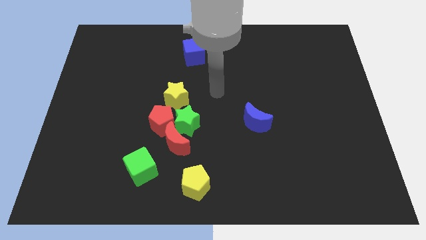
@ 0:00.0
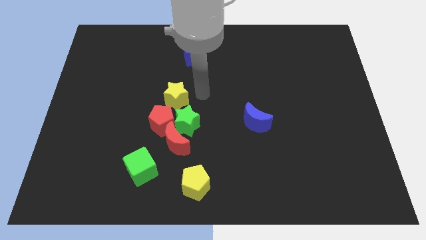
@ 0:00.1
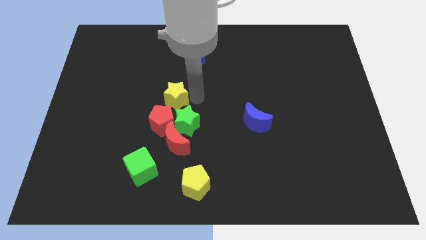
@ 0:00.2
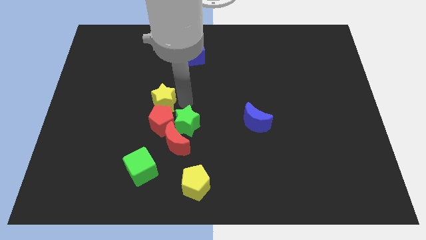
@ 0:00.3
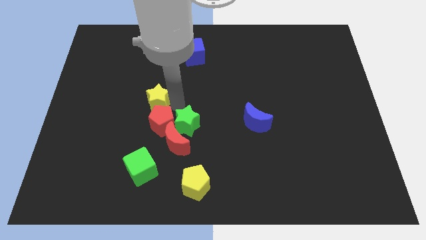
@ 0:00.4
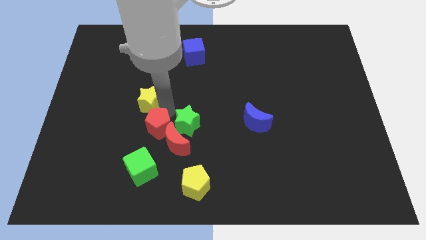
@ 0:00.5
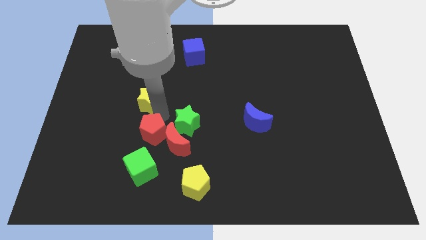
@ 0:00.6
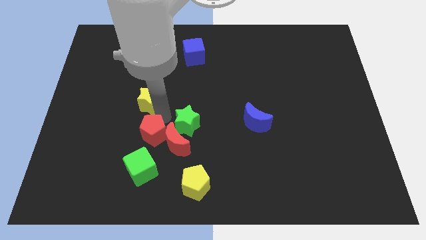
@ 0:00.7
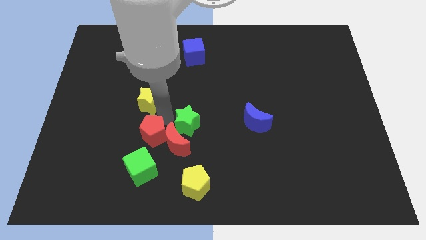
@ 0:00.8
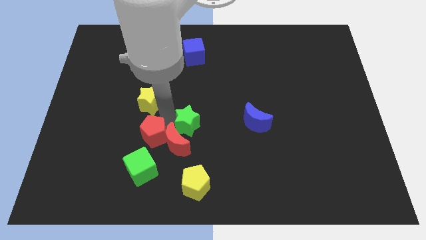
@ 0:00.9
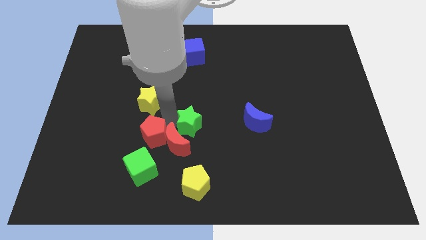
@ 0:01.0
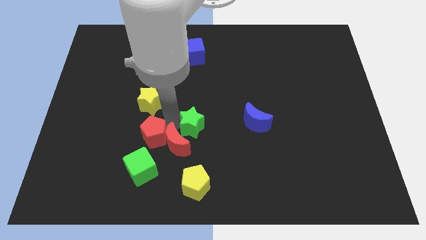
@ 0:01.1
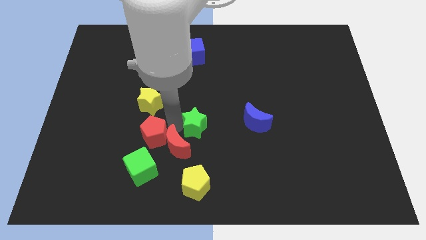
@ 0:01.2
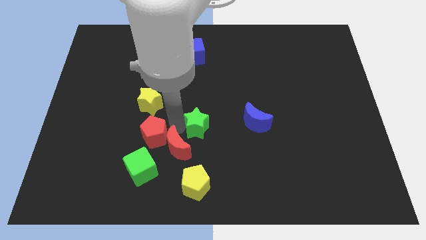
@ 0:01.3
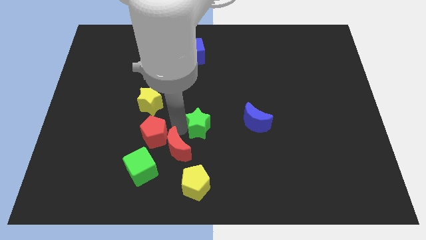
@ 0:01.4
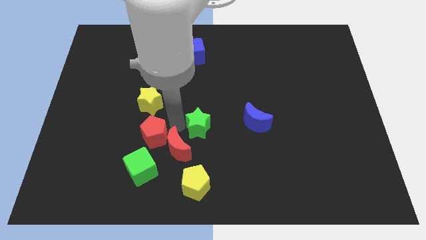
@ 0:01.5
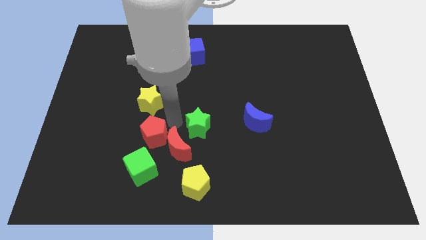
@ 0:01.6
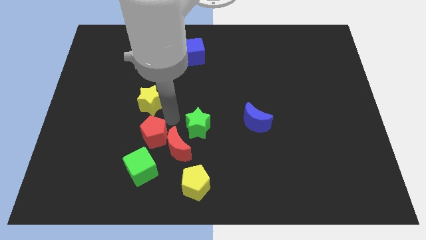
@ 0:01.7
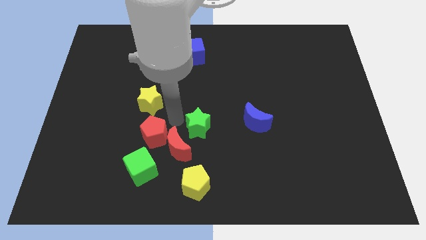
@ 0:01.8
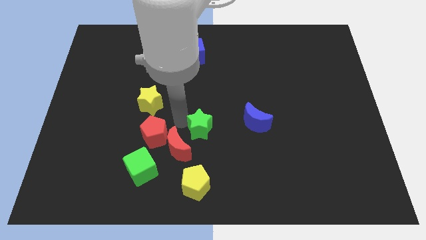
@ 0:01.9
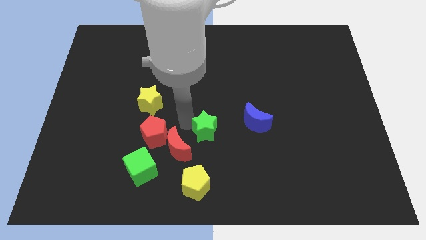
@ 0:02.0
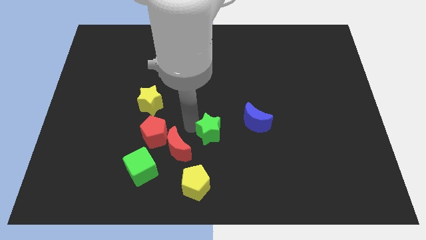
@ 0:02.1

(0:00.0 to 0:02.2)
pull the green star apart from the group

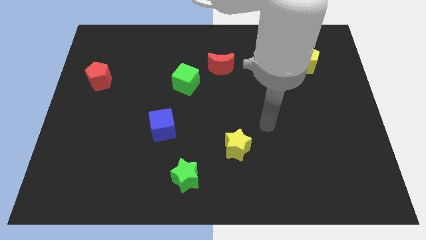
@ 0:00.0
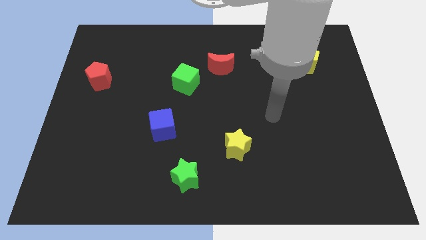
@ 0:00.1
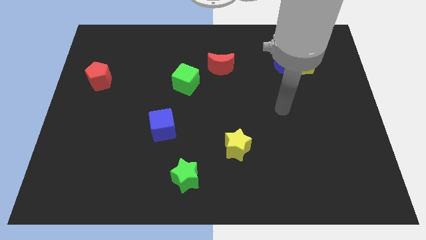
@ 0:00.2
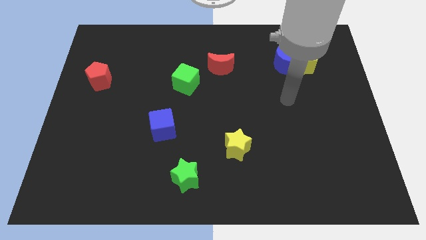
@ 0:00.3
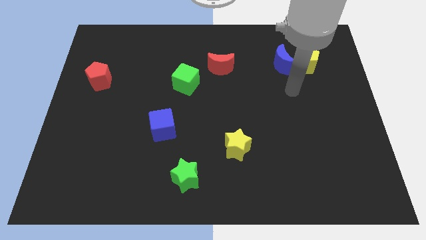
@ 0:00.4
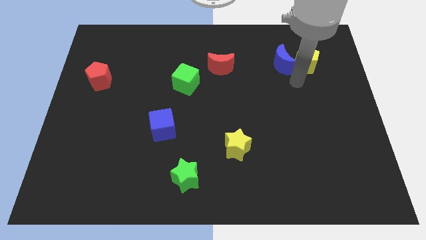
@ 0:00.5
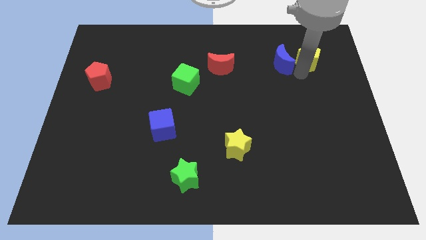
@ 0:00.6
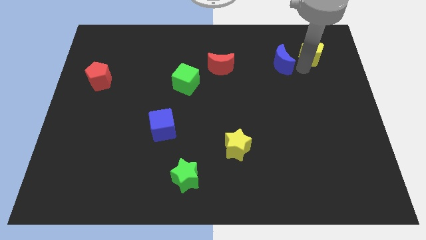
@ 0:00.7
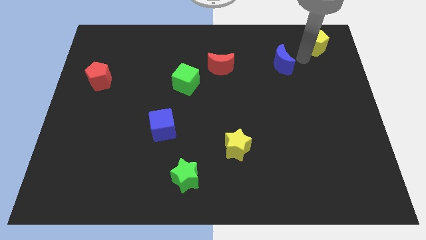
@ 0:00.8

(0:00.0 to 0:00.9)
pull the blue moon apart from the yellow pentagon

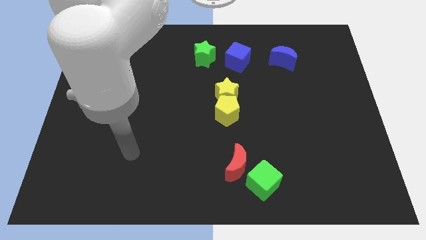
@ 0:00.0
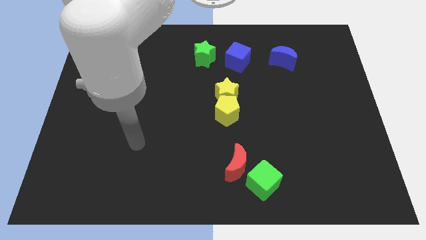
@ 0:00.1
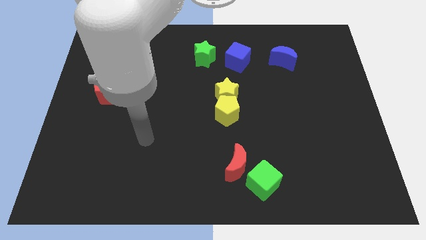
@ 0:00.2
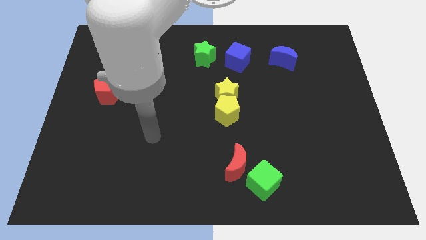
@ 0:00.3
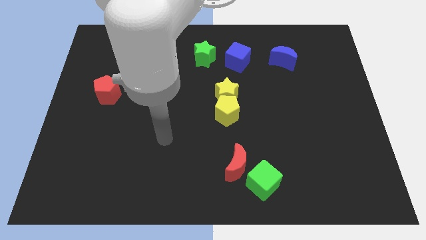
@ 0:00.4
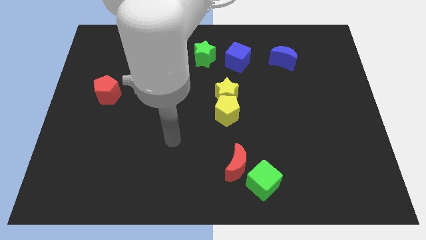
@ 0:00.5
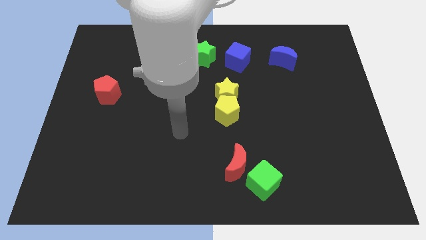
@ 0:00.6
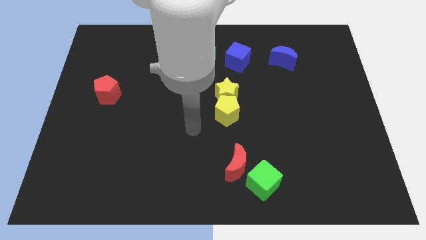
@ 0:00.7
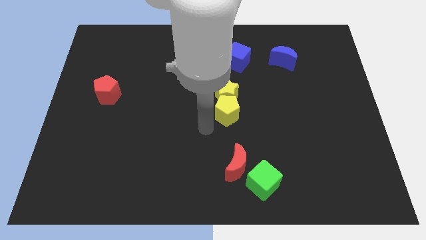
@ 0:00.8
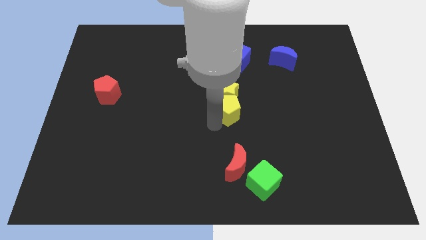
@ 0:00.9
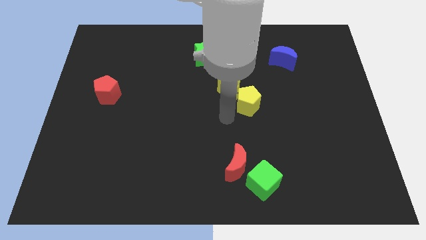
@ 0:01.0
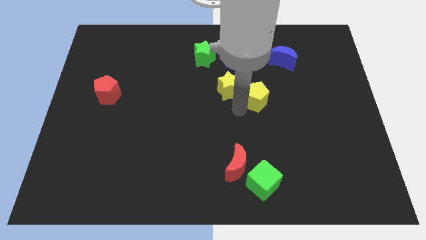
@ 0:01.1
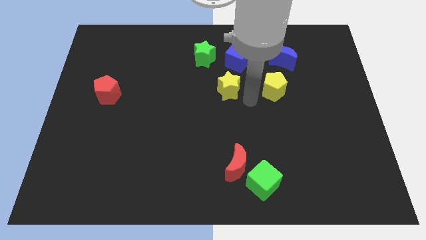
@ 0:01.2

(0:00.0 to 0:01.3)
move the yellow star away from the yellow pentagon

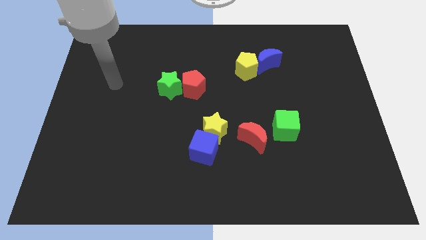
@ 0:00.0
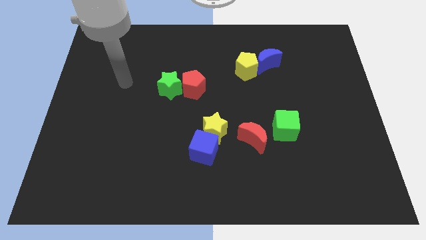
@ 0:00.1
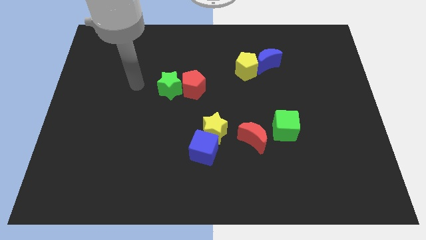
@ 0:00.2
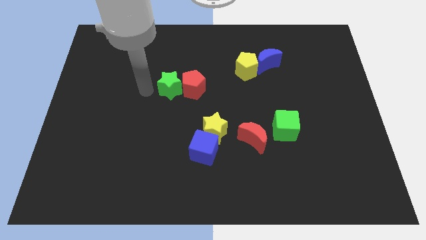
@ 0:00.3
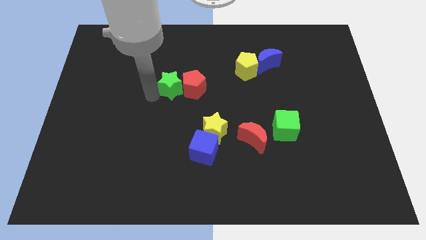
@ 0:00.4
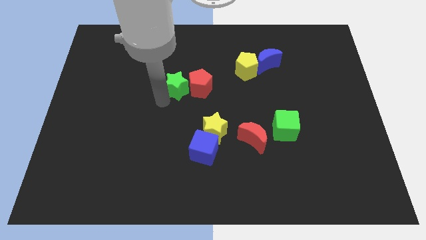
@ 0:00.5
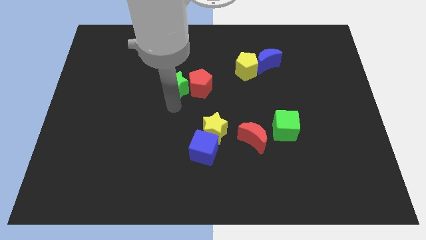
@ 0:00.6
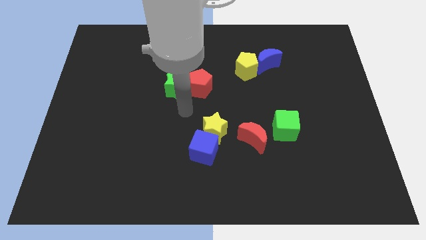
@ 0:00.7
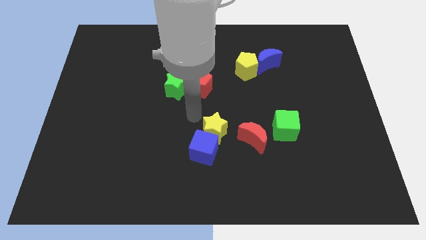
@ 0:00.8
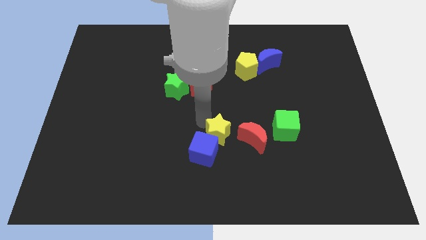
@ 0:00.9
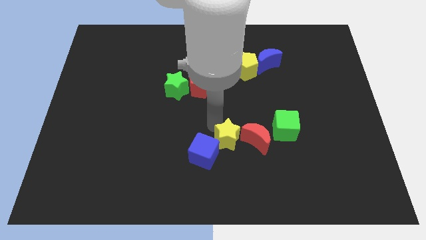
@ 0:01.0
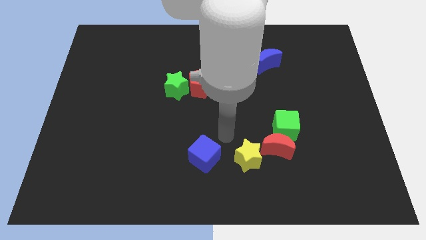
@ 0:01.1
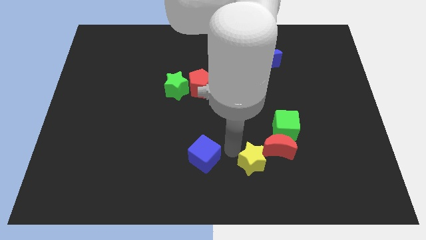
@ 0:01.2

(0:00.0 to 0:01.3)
move the blue cube away from the yellow star

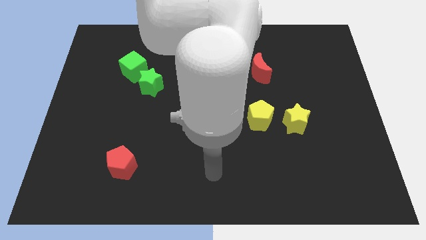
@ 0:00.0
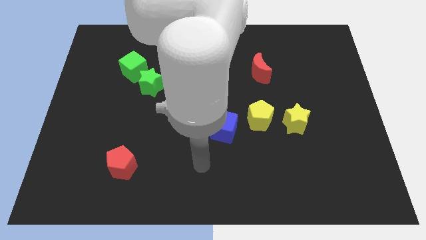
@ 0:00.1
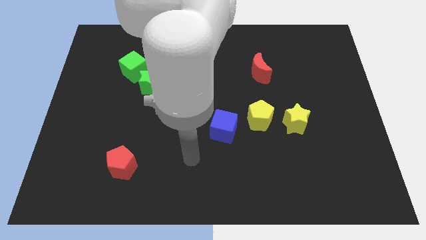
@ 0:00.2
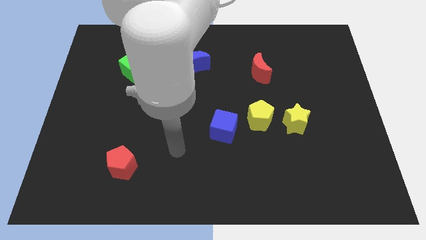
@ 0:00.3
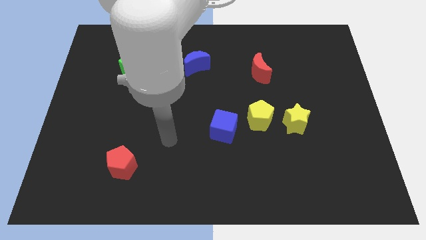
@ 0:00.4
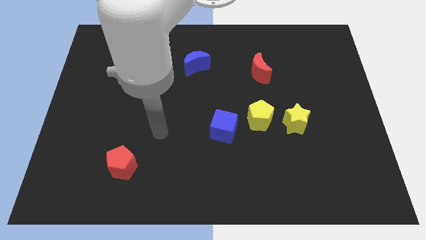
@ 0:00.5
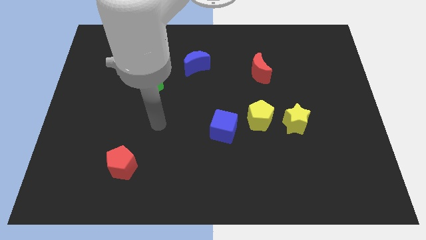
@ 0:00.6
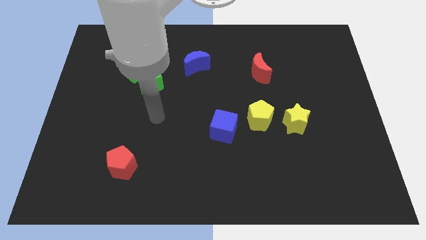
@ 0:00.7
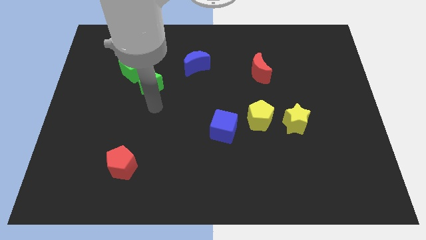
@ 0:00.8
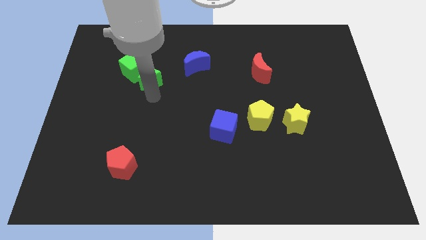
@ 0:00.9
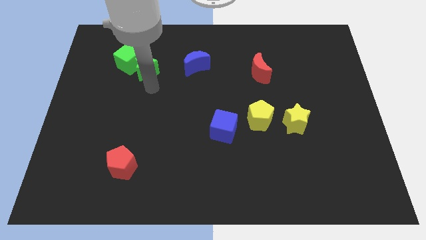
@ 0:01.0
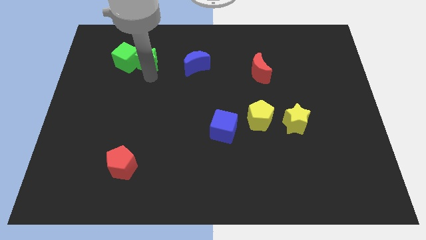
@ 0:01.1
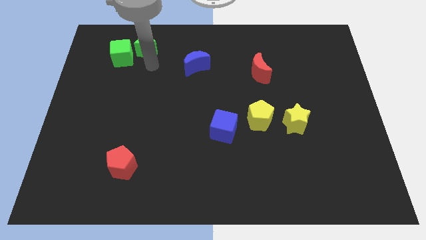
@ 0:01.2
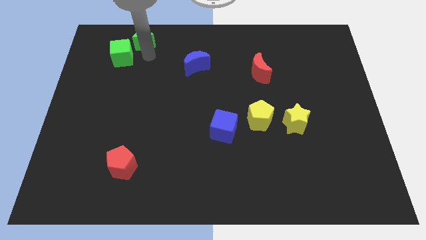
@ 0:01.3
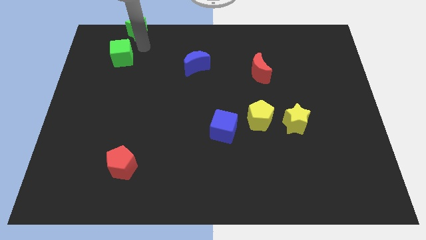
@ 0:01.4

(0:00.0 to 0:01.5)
pull the green cube apart from the green star

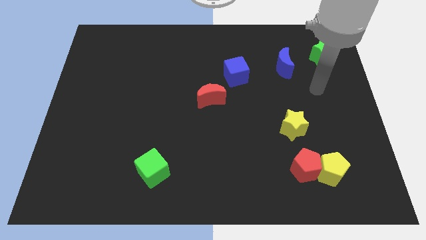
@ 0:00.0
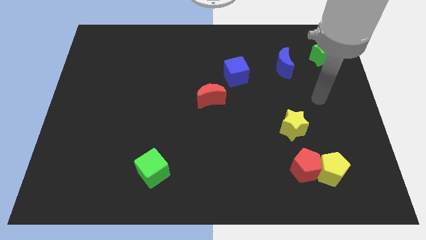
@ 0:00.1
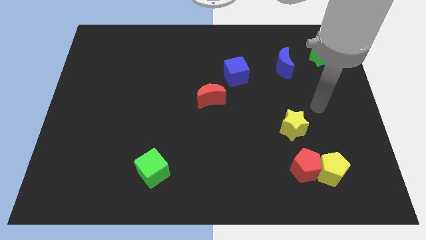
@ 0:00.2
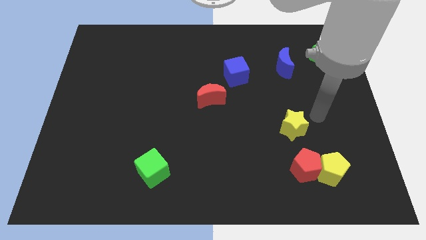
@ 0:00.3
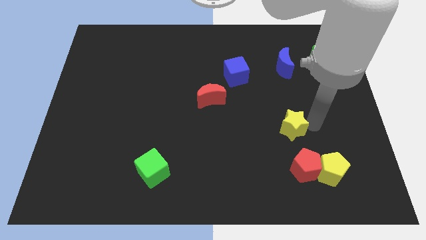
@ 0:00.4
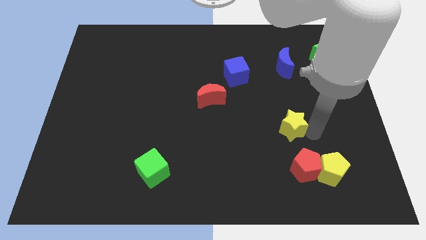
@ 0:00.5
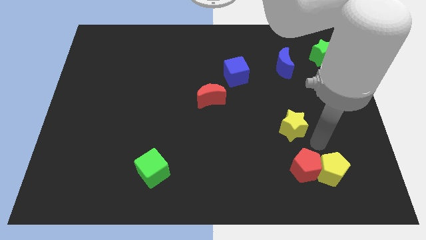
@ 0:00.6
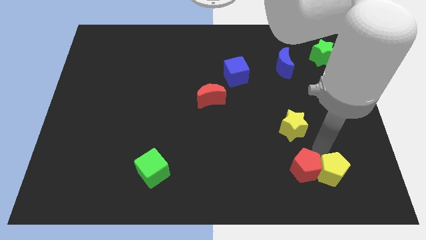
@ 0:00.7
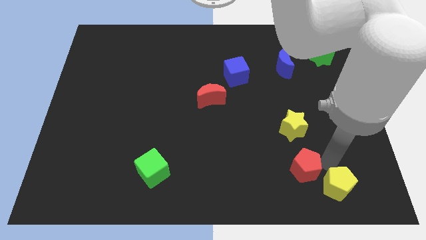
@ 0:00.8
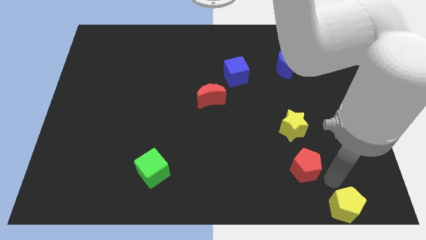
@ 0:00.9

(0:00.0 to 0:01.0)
separate the red pentagon from the yellow pentagon

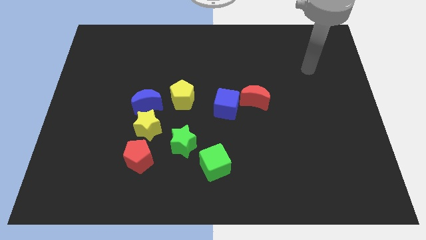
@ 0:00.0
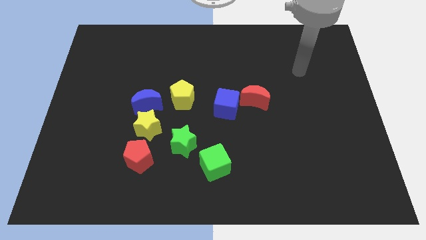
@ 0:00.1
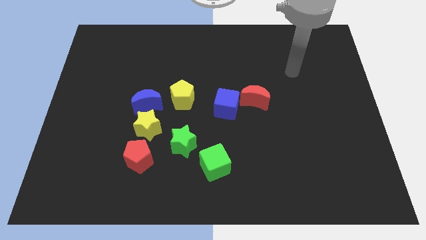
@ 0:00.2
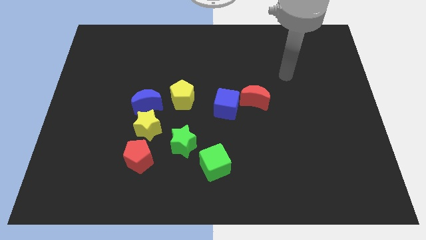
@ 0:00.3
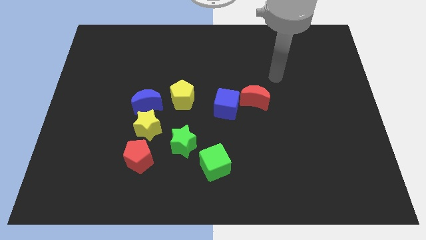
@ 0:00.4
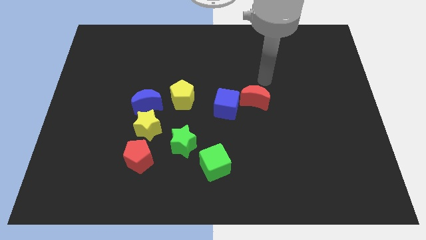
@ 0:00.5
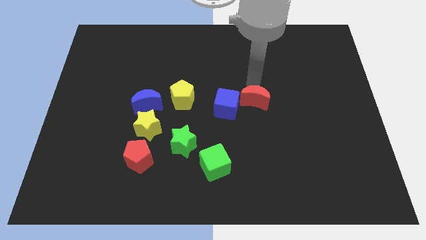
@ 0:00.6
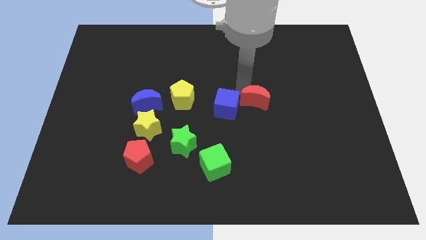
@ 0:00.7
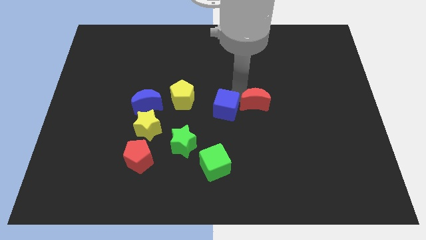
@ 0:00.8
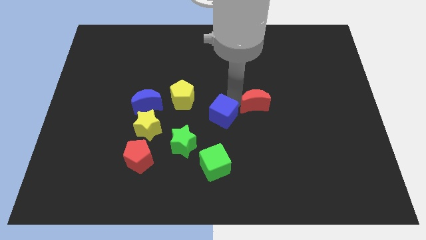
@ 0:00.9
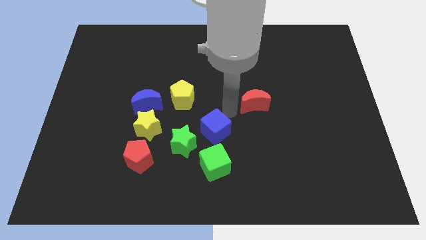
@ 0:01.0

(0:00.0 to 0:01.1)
separate the red moon from the blue cube
